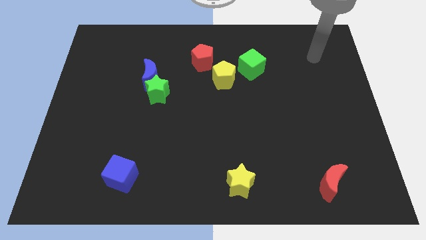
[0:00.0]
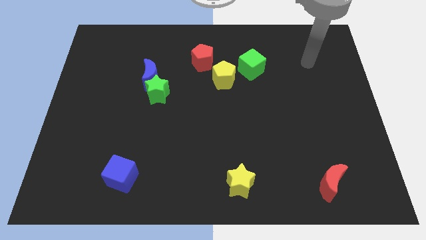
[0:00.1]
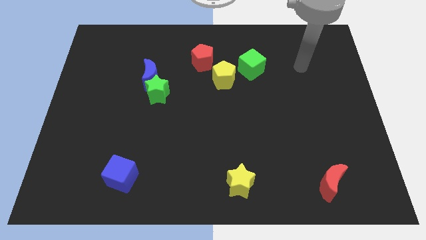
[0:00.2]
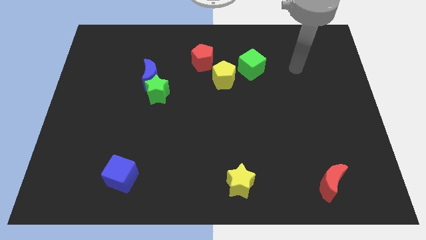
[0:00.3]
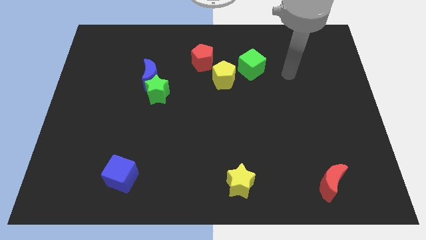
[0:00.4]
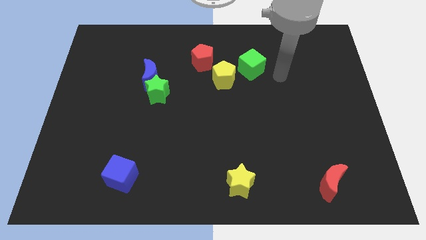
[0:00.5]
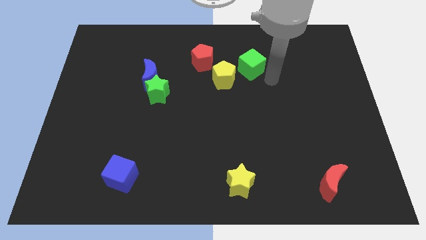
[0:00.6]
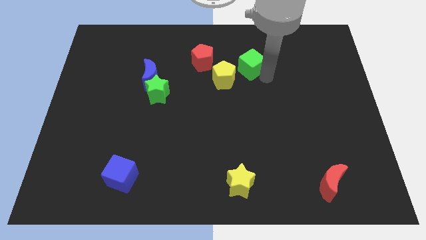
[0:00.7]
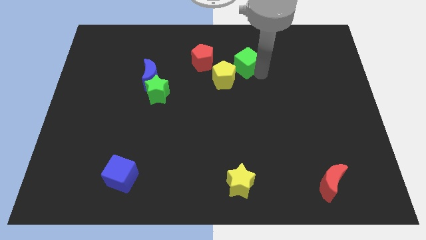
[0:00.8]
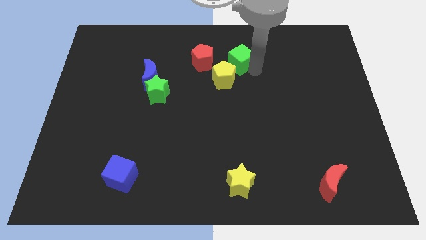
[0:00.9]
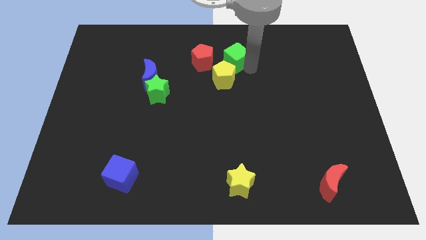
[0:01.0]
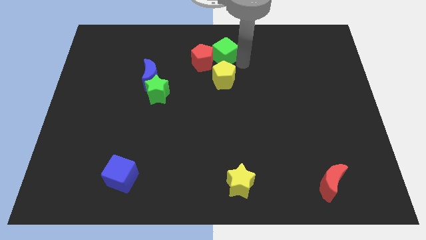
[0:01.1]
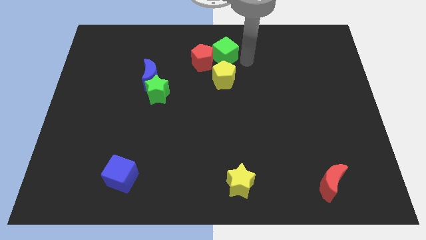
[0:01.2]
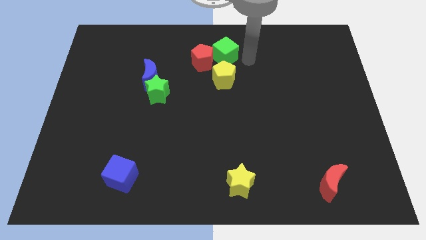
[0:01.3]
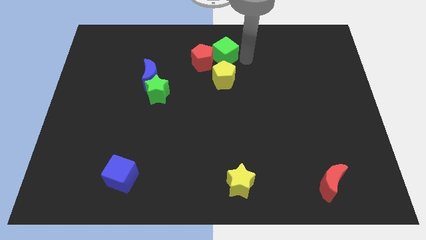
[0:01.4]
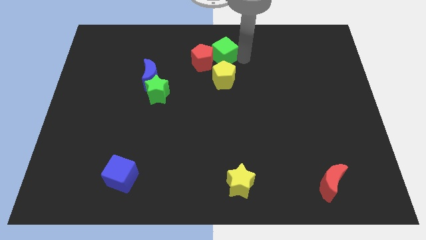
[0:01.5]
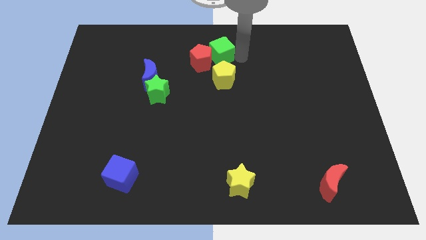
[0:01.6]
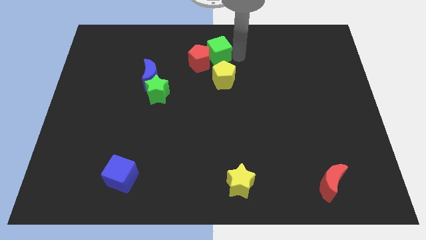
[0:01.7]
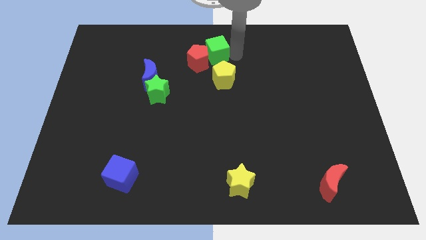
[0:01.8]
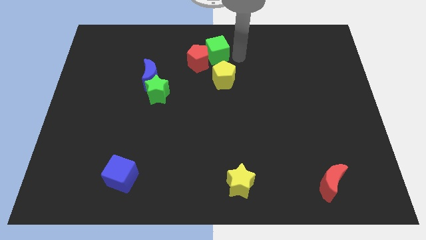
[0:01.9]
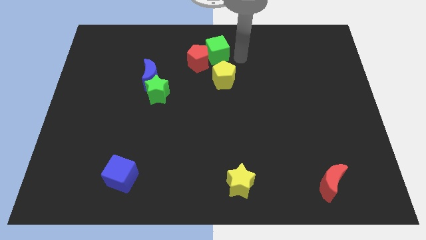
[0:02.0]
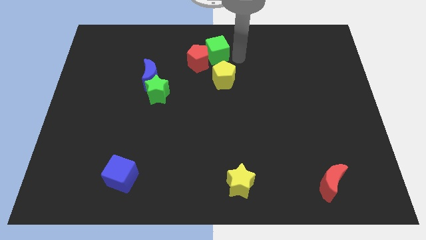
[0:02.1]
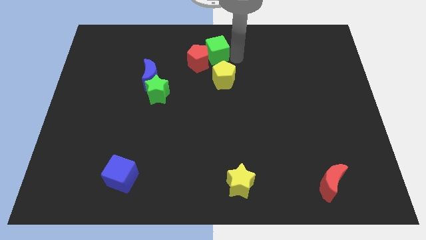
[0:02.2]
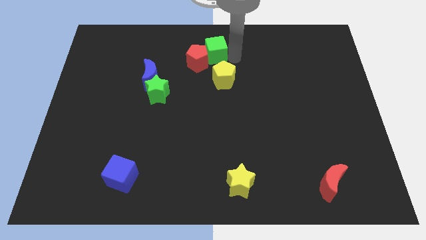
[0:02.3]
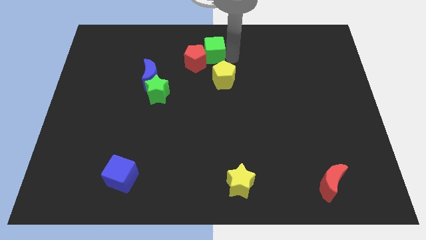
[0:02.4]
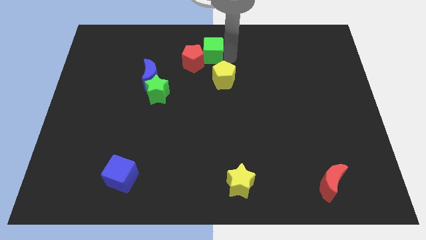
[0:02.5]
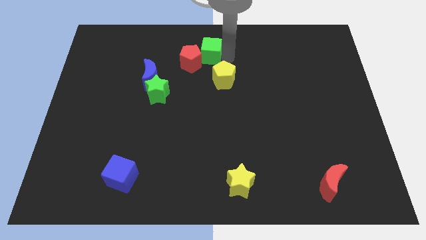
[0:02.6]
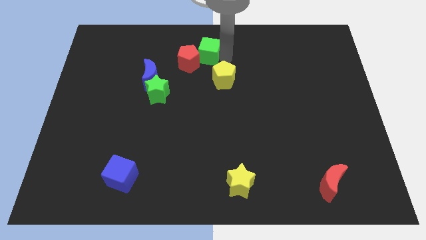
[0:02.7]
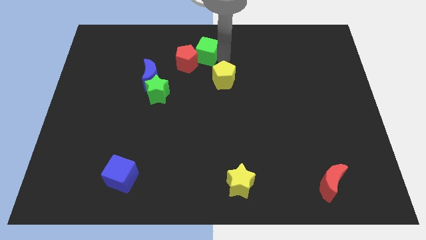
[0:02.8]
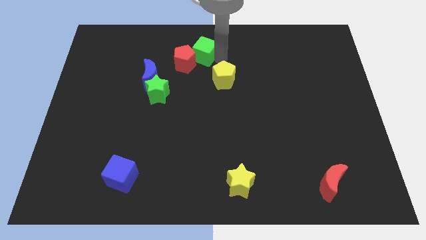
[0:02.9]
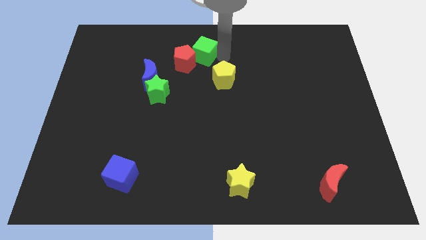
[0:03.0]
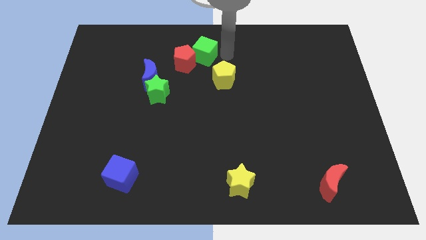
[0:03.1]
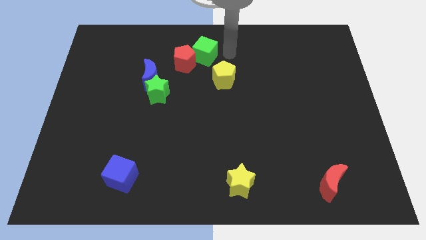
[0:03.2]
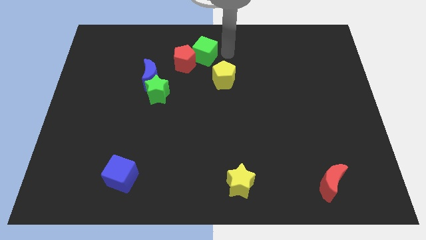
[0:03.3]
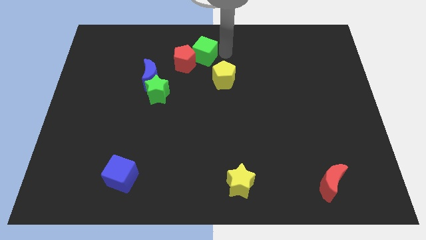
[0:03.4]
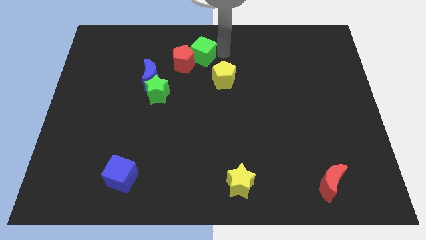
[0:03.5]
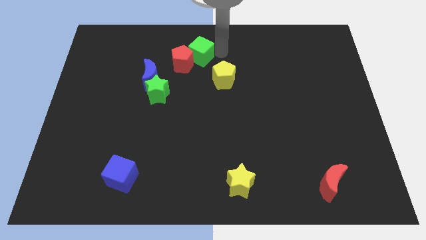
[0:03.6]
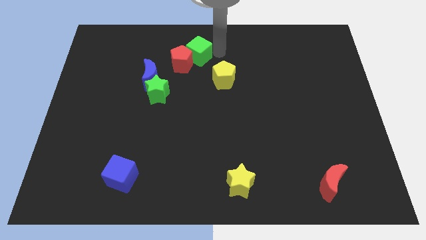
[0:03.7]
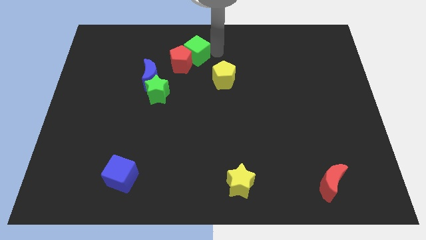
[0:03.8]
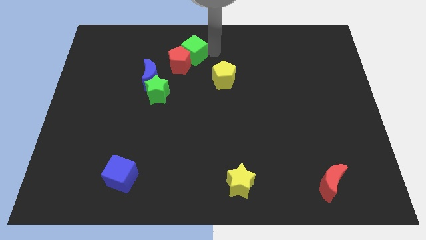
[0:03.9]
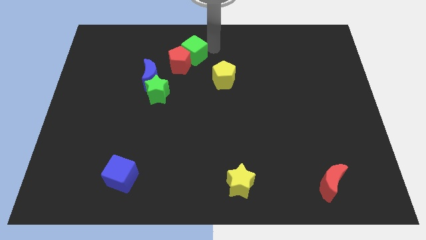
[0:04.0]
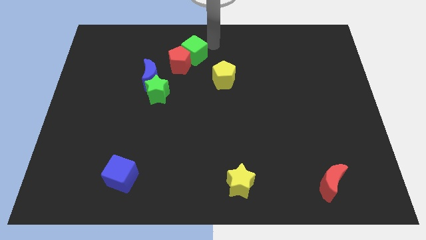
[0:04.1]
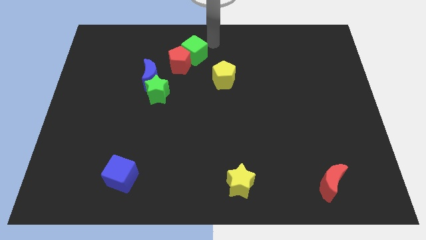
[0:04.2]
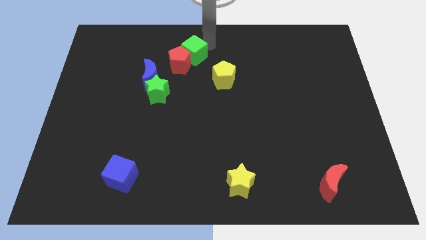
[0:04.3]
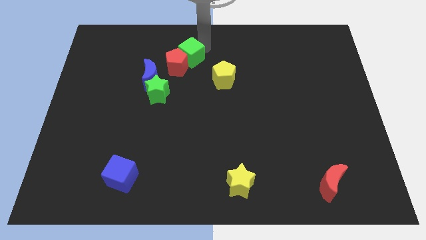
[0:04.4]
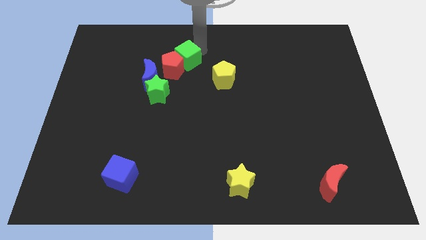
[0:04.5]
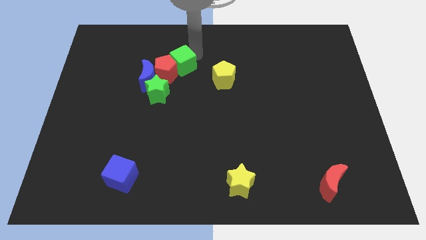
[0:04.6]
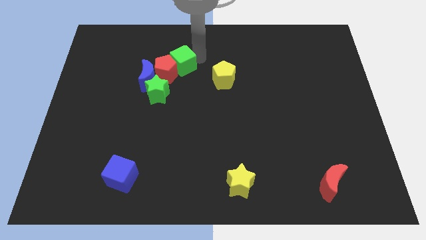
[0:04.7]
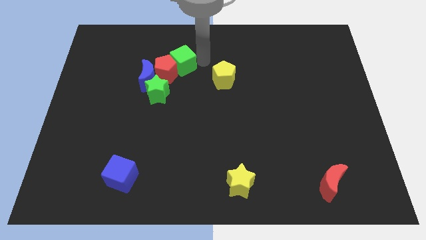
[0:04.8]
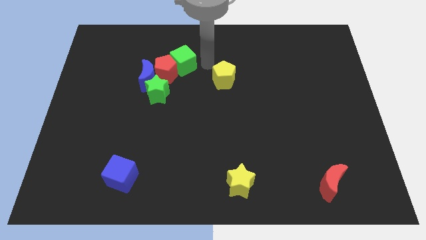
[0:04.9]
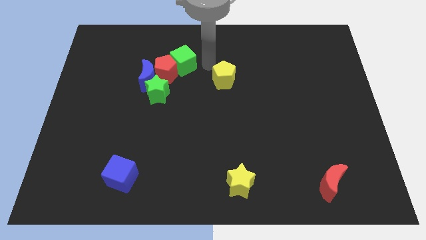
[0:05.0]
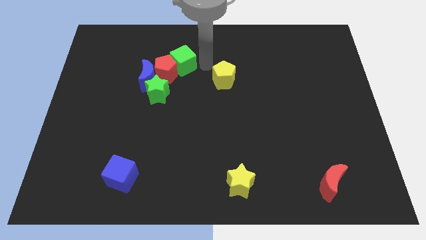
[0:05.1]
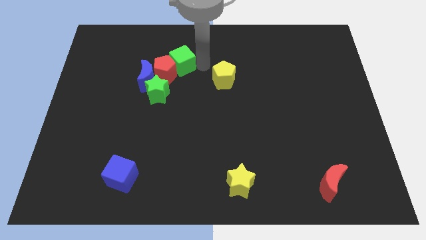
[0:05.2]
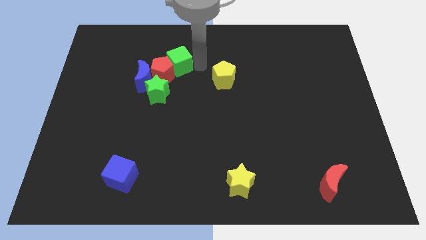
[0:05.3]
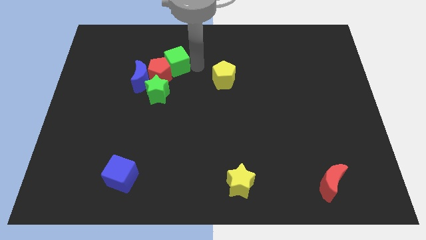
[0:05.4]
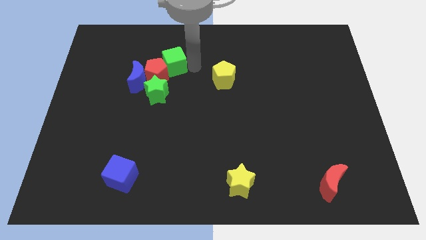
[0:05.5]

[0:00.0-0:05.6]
push the green cube to the left

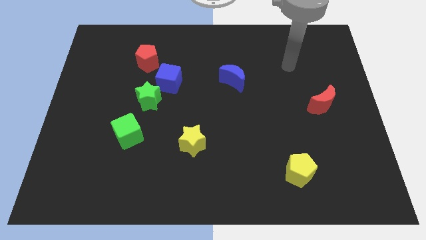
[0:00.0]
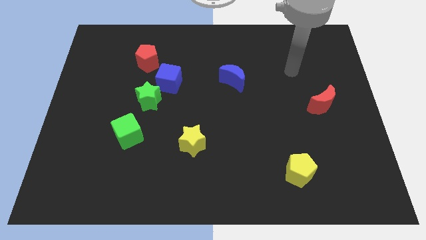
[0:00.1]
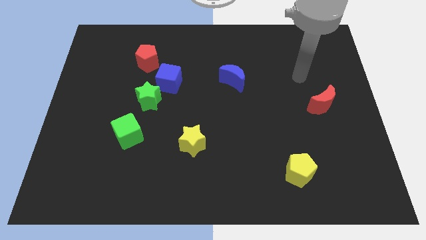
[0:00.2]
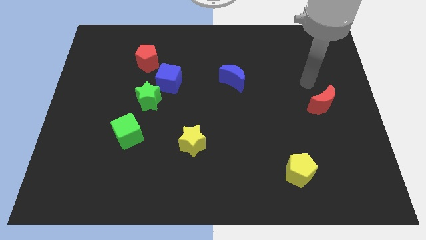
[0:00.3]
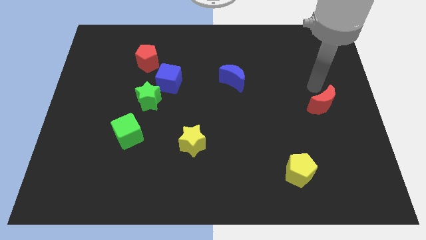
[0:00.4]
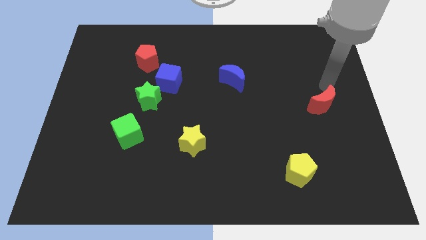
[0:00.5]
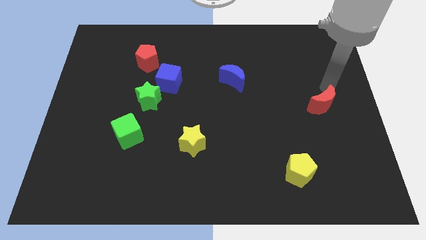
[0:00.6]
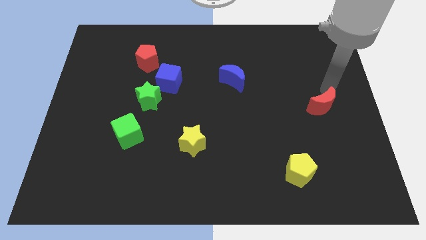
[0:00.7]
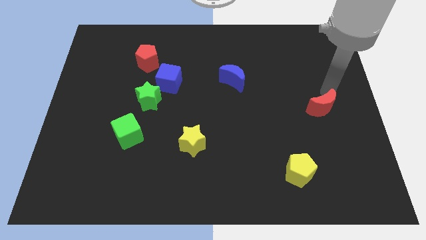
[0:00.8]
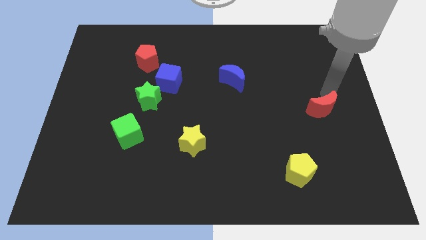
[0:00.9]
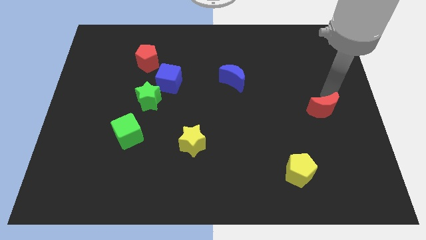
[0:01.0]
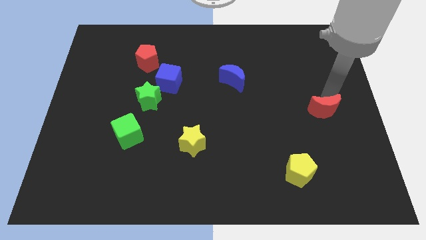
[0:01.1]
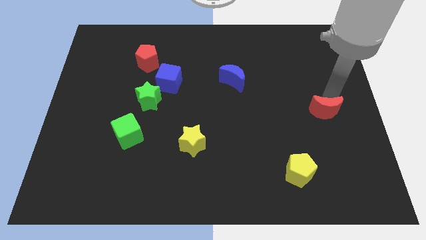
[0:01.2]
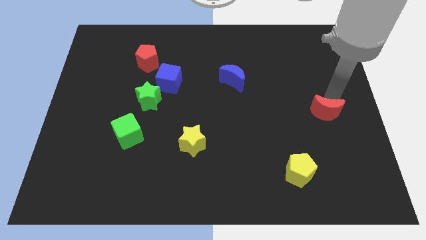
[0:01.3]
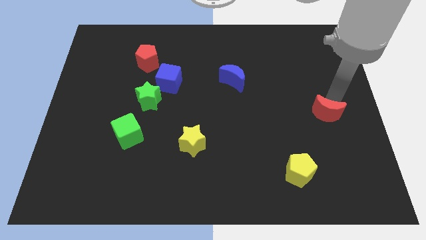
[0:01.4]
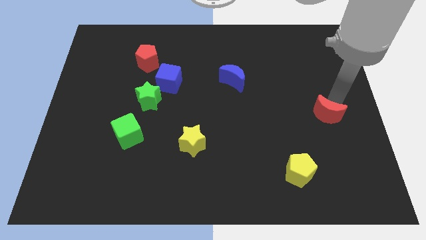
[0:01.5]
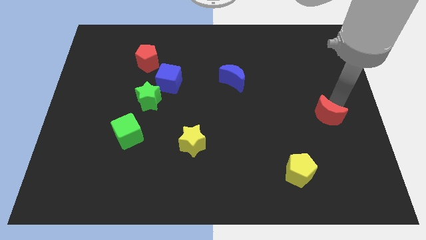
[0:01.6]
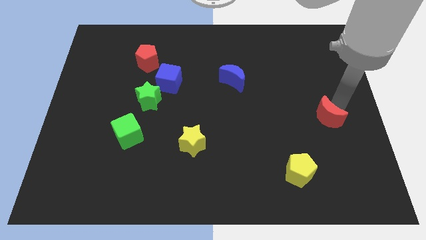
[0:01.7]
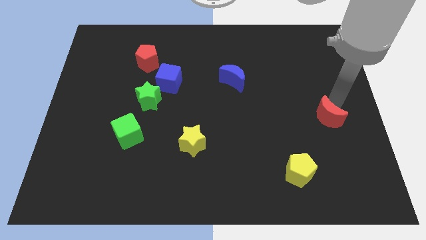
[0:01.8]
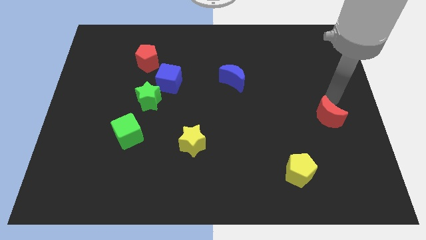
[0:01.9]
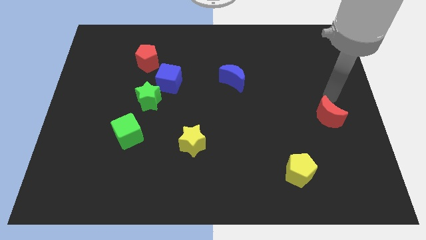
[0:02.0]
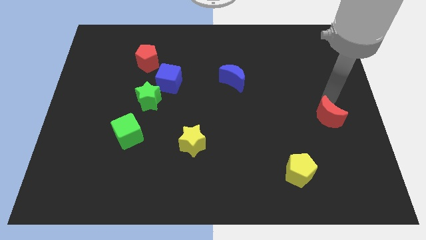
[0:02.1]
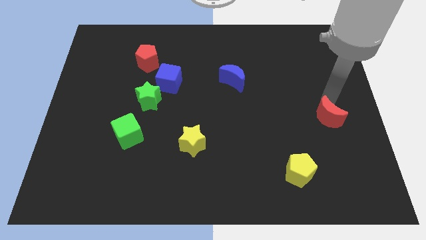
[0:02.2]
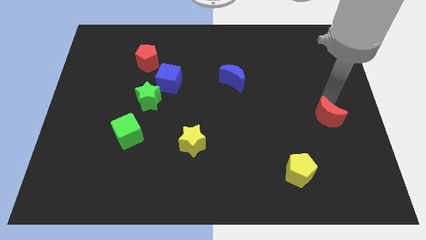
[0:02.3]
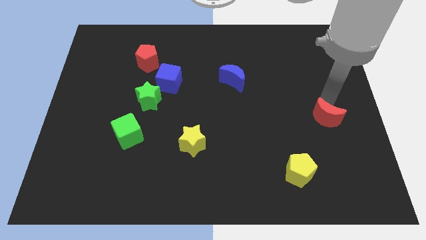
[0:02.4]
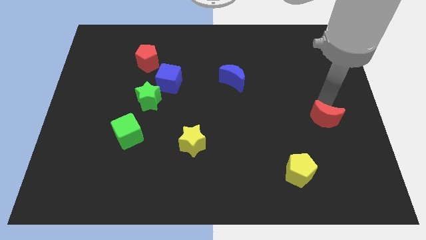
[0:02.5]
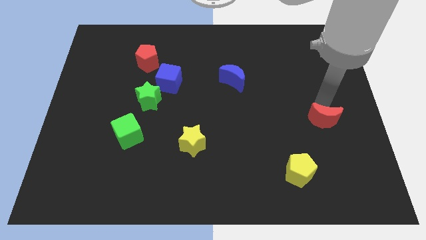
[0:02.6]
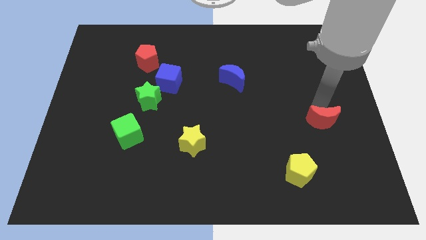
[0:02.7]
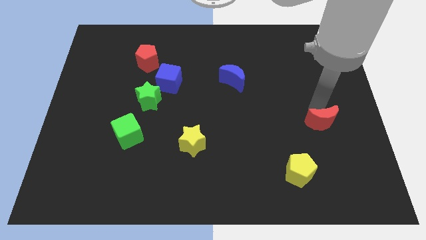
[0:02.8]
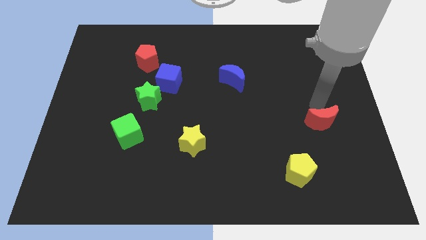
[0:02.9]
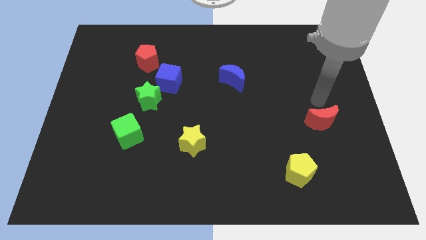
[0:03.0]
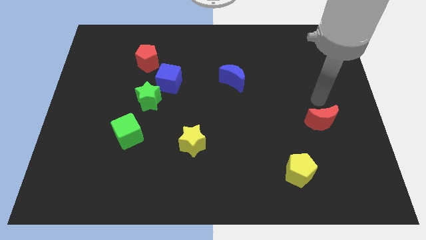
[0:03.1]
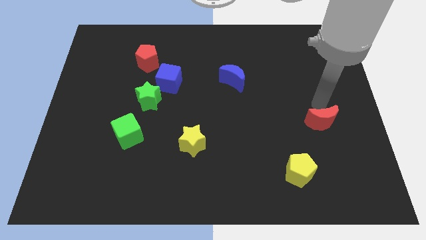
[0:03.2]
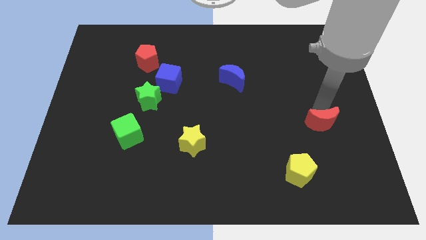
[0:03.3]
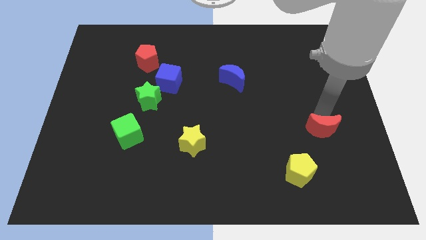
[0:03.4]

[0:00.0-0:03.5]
slide the red moon down somewhat
